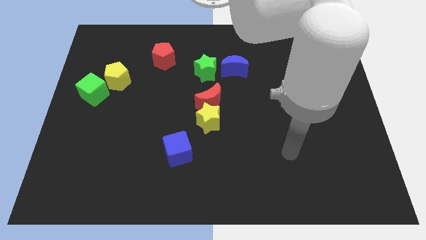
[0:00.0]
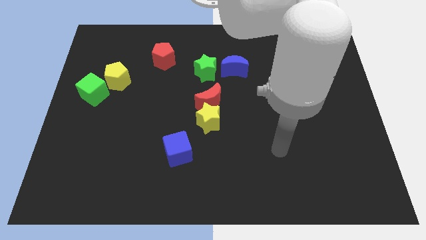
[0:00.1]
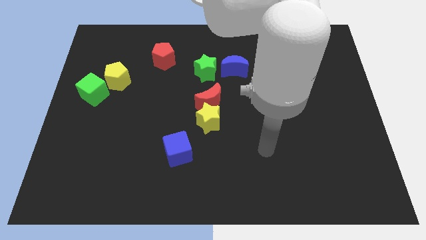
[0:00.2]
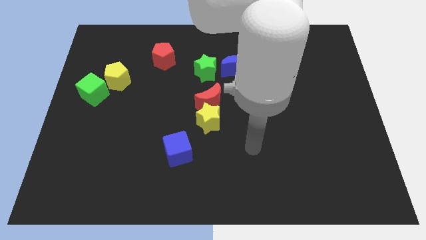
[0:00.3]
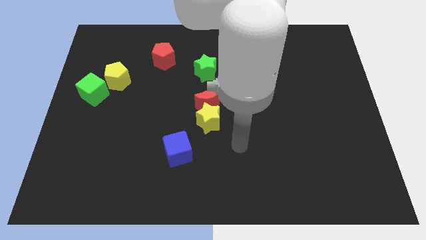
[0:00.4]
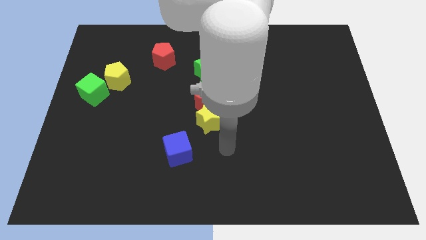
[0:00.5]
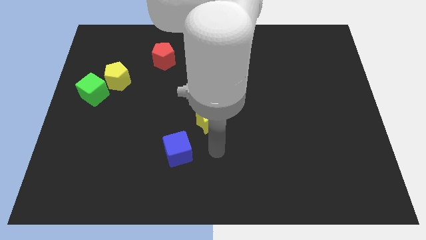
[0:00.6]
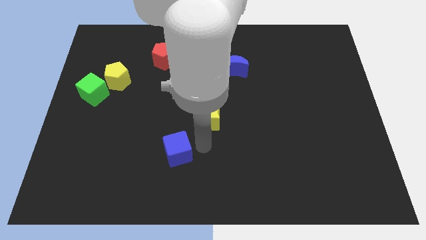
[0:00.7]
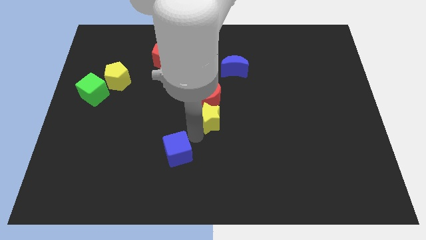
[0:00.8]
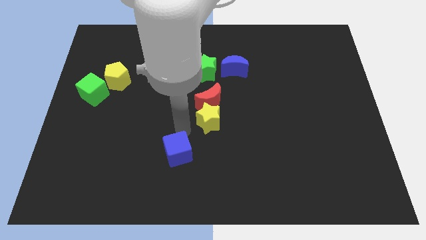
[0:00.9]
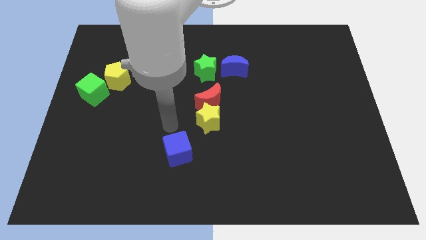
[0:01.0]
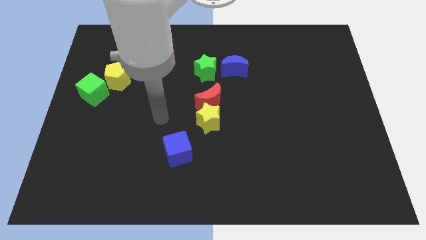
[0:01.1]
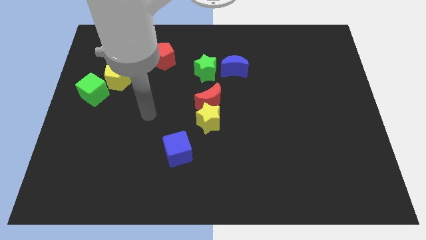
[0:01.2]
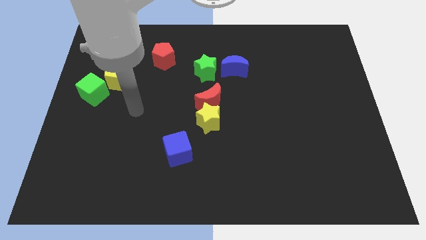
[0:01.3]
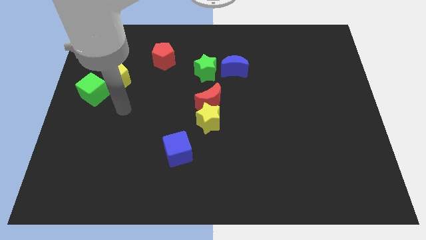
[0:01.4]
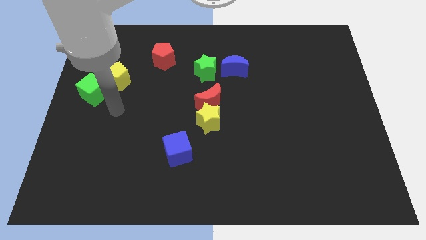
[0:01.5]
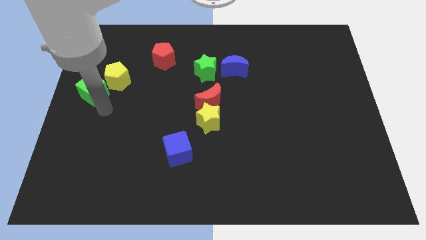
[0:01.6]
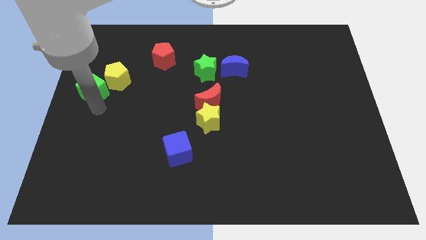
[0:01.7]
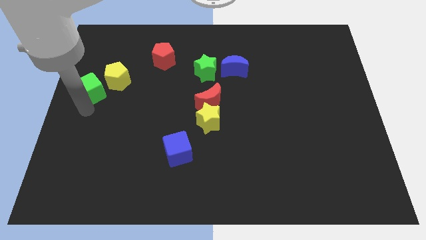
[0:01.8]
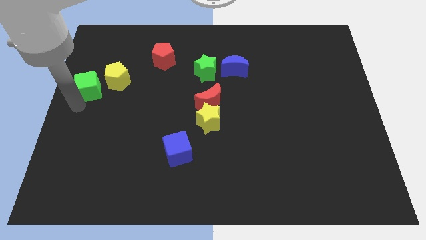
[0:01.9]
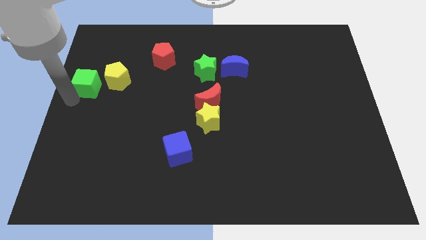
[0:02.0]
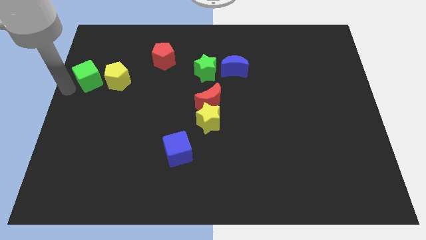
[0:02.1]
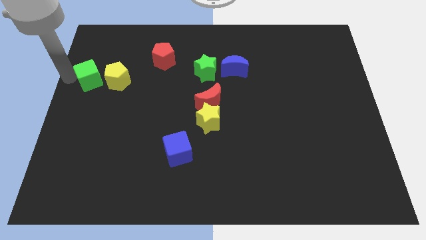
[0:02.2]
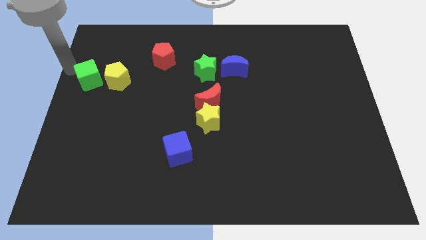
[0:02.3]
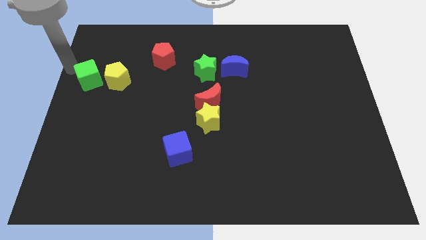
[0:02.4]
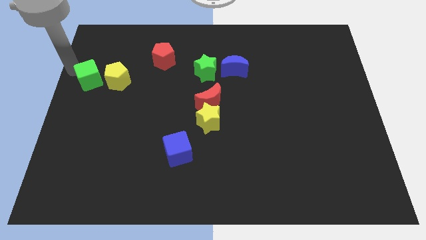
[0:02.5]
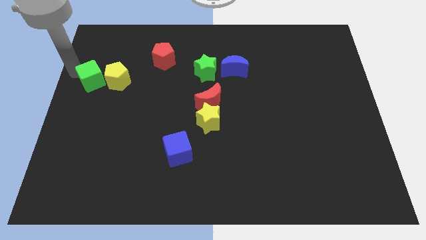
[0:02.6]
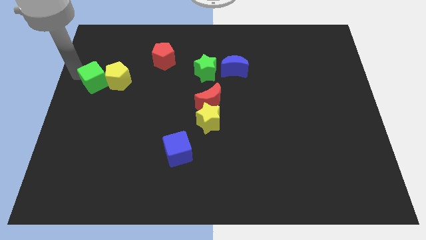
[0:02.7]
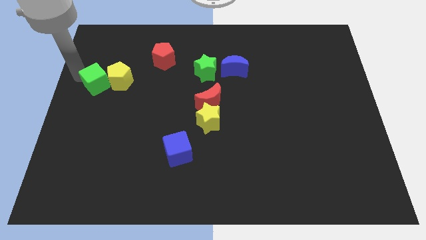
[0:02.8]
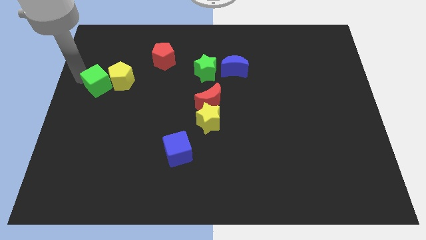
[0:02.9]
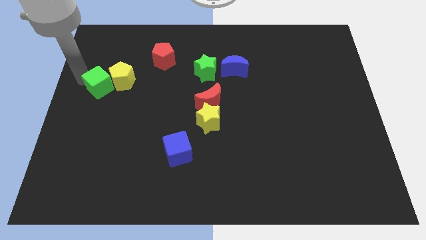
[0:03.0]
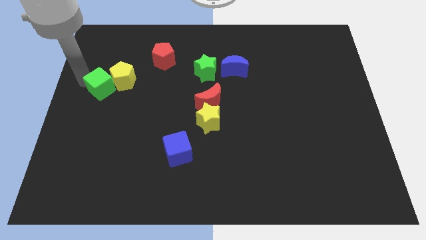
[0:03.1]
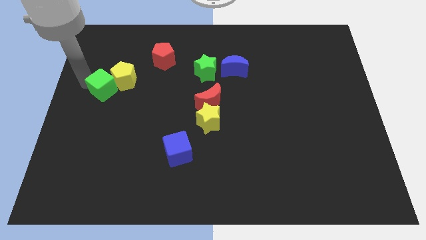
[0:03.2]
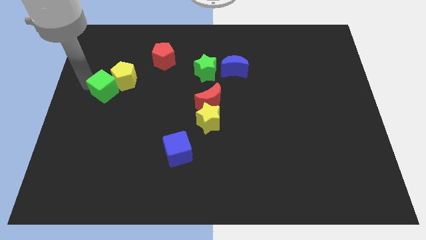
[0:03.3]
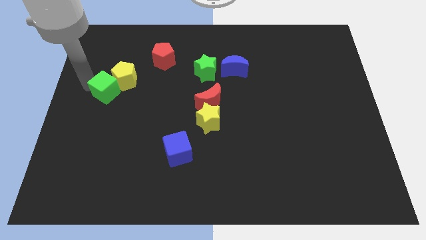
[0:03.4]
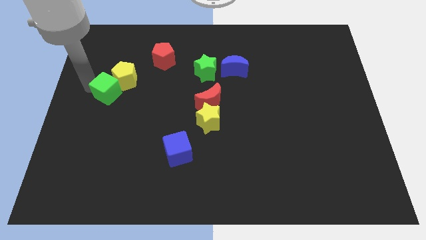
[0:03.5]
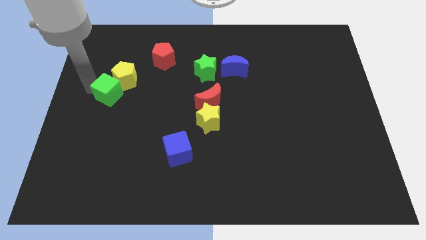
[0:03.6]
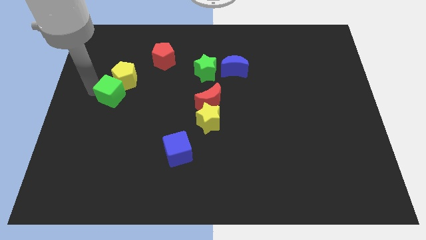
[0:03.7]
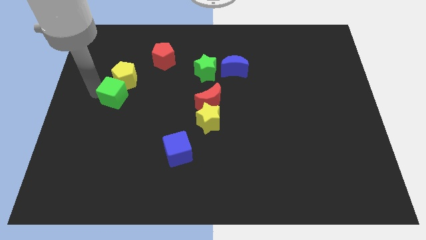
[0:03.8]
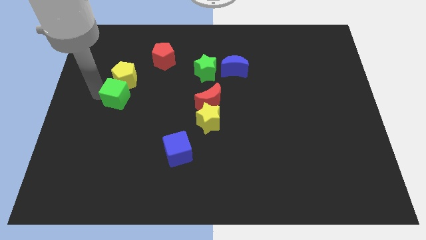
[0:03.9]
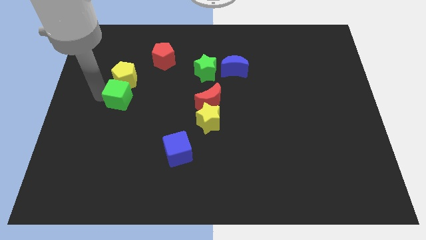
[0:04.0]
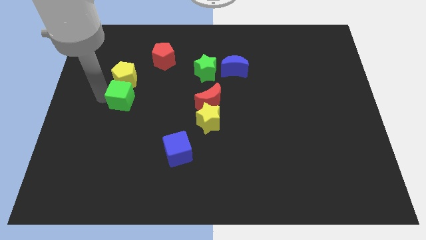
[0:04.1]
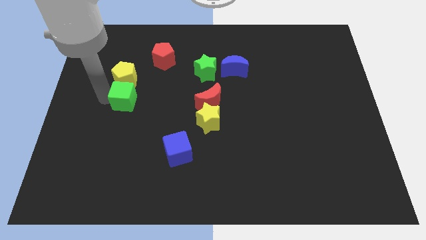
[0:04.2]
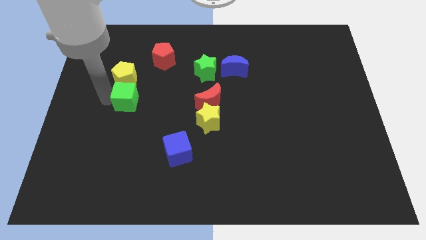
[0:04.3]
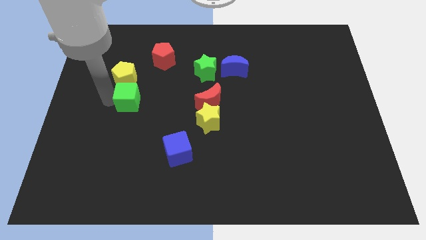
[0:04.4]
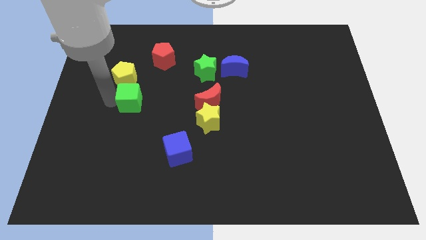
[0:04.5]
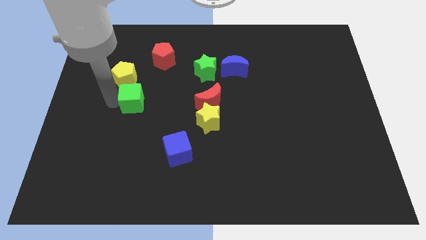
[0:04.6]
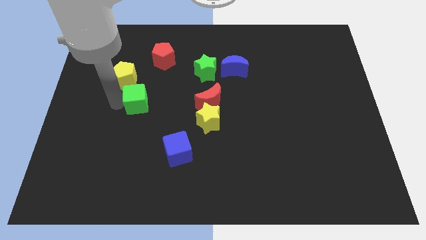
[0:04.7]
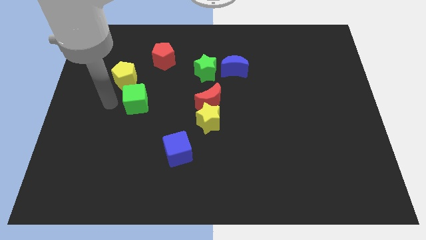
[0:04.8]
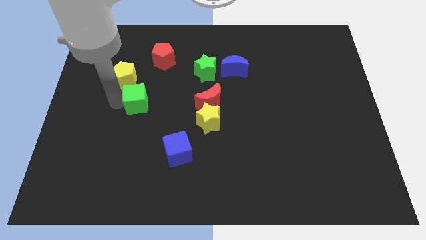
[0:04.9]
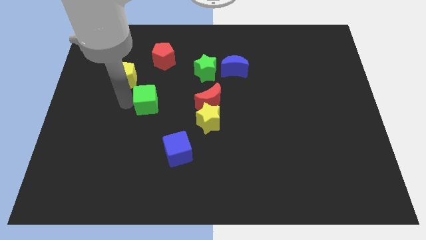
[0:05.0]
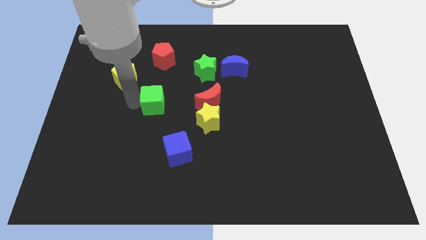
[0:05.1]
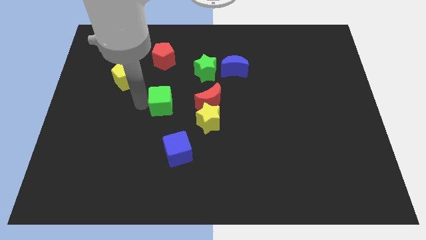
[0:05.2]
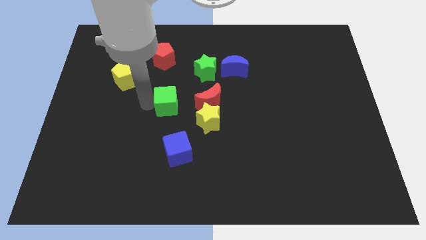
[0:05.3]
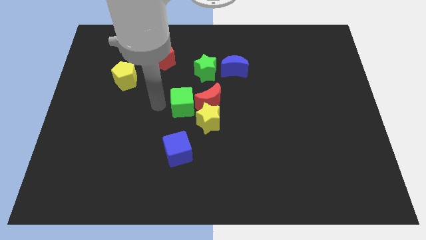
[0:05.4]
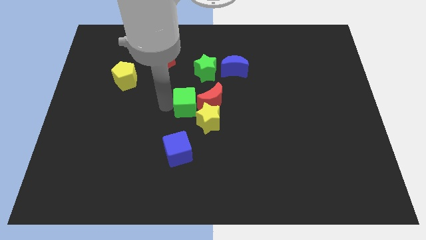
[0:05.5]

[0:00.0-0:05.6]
move the green cube towards the red moon

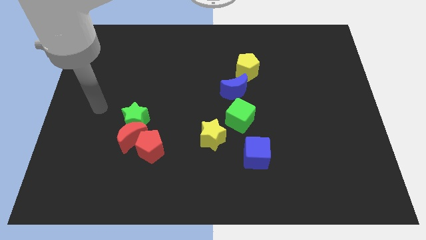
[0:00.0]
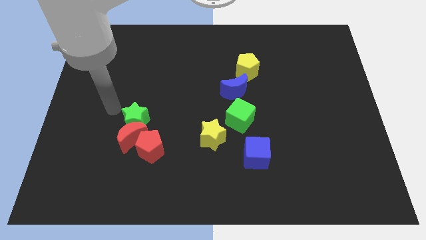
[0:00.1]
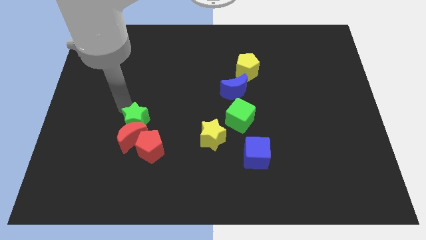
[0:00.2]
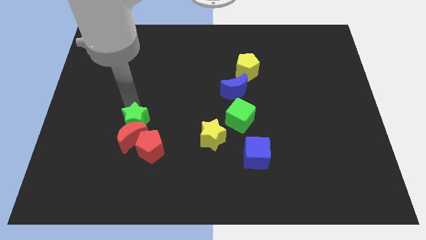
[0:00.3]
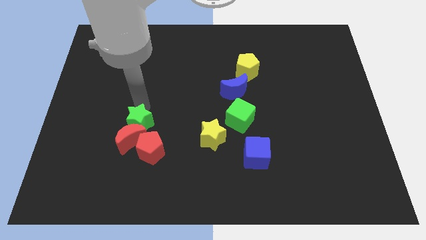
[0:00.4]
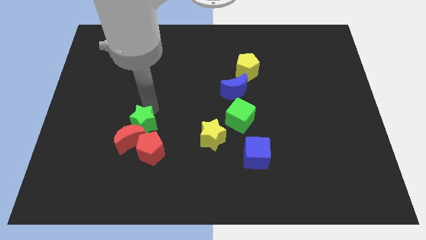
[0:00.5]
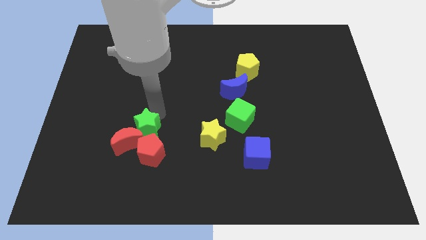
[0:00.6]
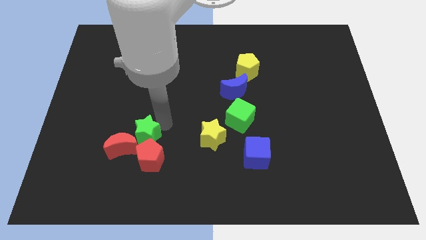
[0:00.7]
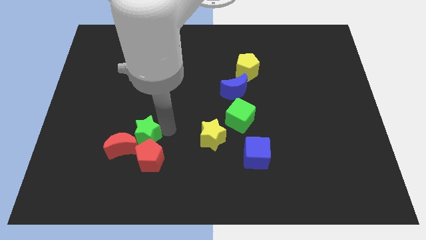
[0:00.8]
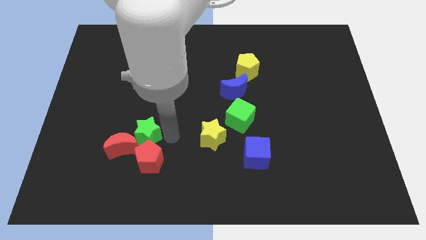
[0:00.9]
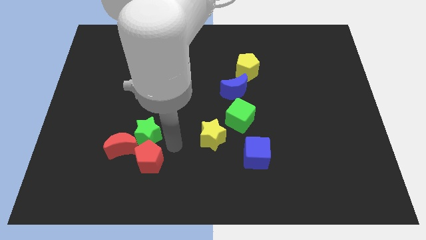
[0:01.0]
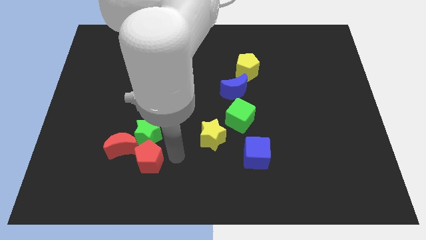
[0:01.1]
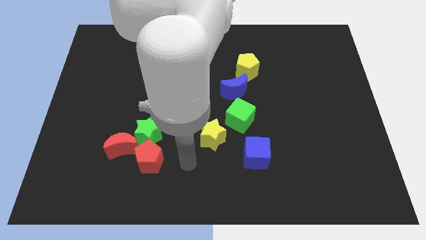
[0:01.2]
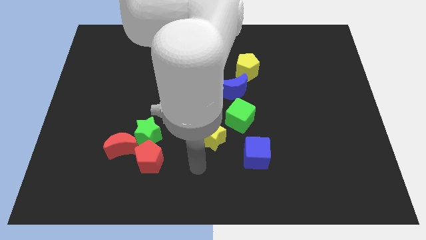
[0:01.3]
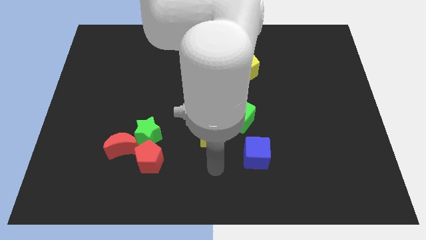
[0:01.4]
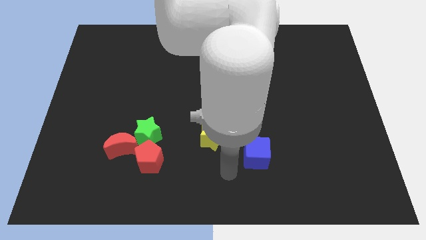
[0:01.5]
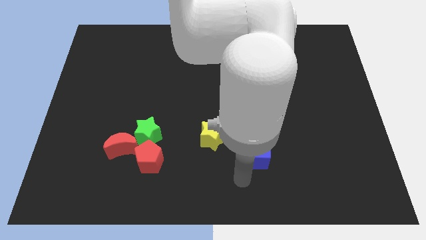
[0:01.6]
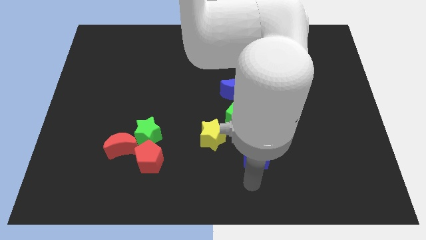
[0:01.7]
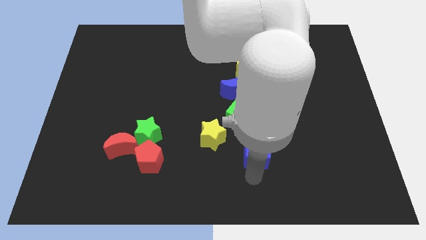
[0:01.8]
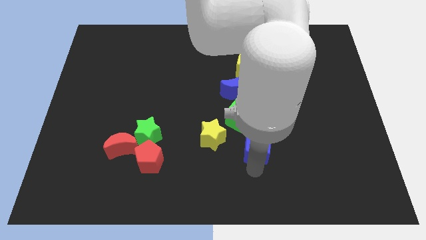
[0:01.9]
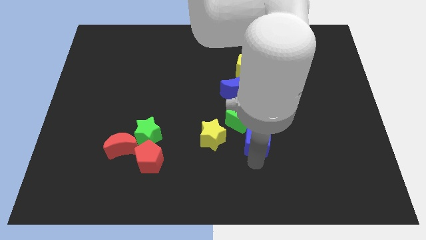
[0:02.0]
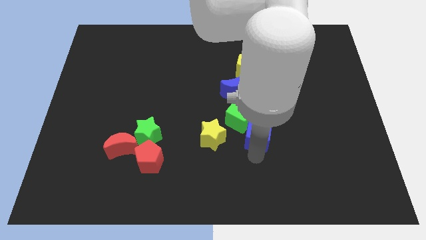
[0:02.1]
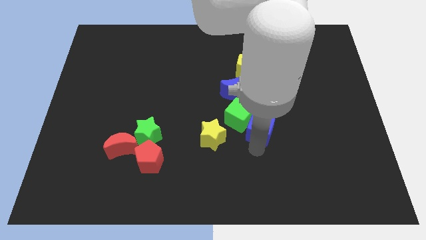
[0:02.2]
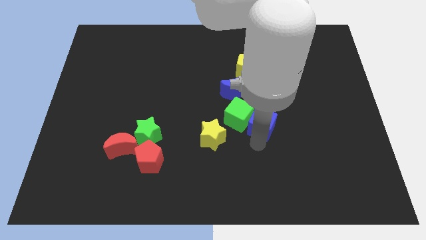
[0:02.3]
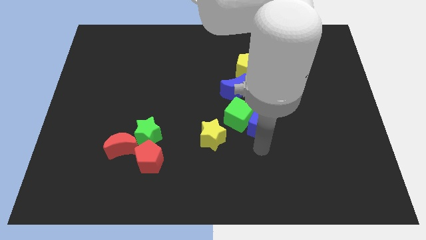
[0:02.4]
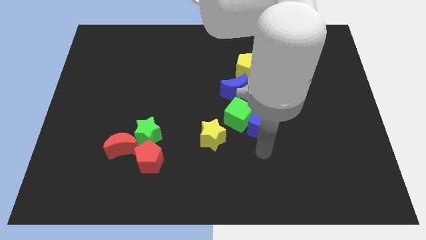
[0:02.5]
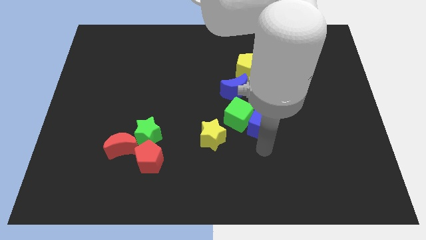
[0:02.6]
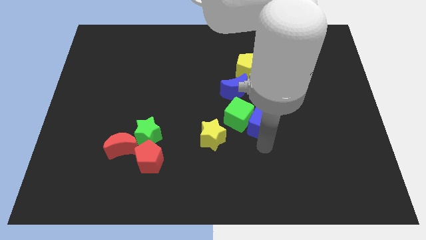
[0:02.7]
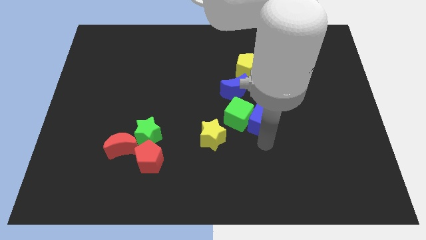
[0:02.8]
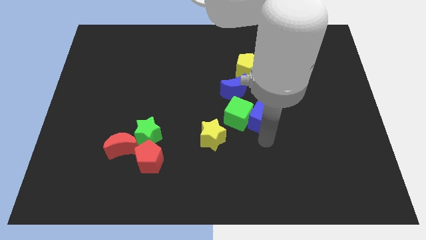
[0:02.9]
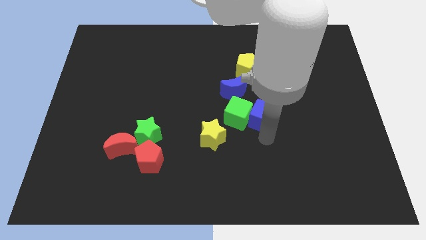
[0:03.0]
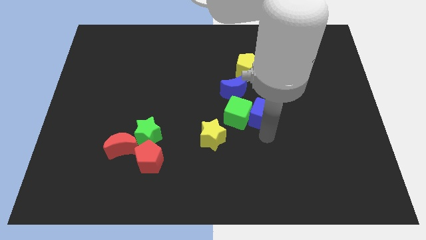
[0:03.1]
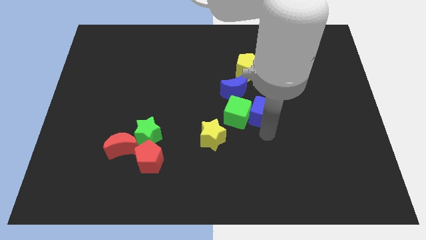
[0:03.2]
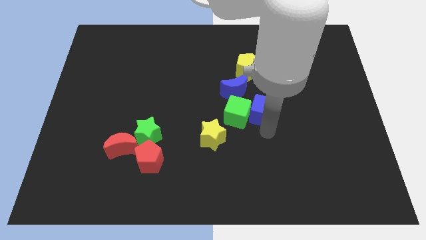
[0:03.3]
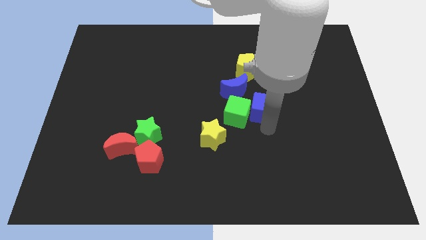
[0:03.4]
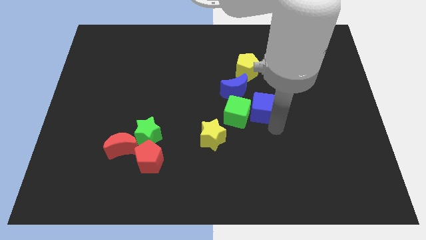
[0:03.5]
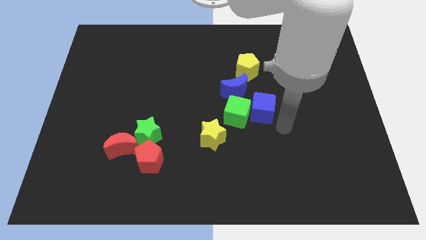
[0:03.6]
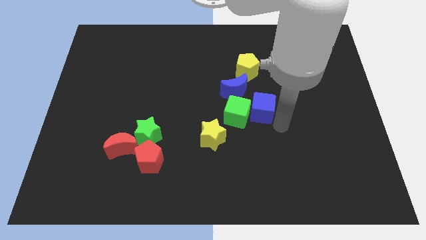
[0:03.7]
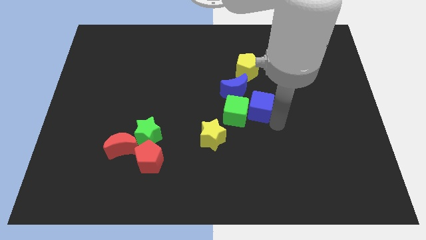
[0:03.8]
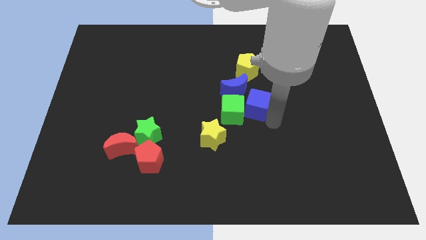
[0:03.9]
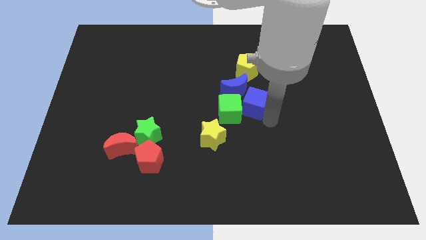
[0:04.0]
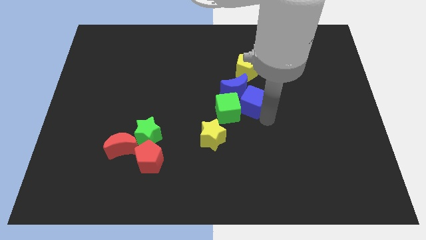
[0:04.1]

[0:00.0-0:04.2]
slide the blue cube close to the blue moon
